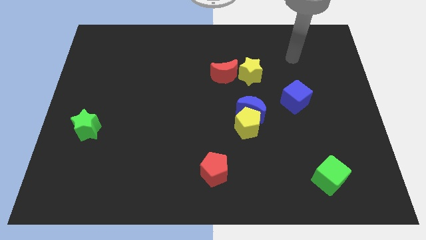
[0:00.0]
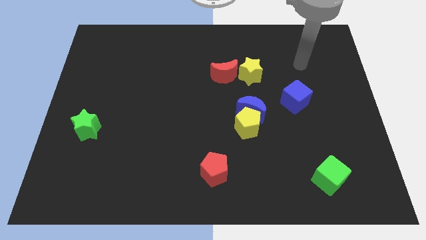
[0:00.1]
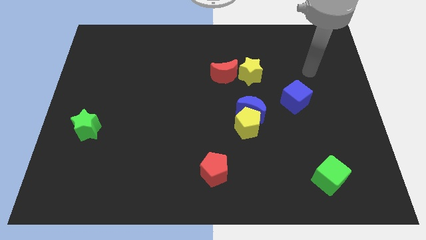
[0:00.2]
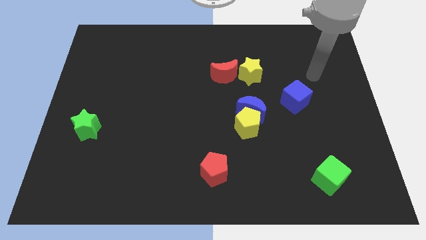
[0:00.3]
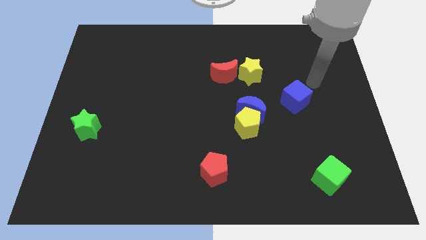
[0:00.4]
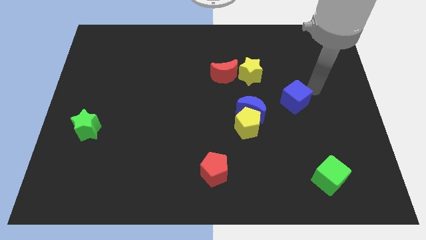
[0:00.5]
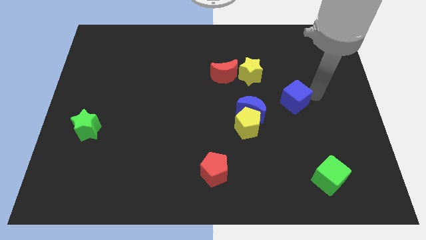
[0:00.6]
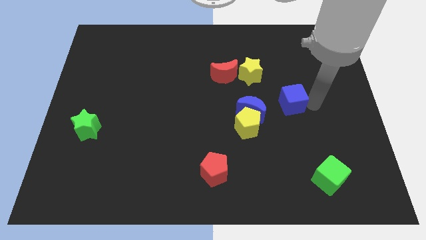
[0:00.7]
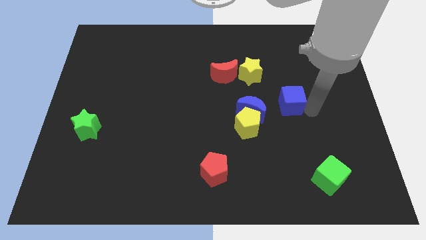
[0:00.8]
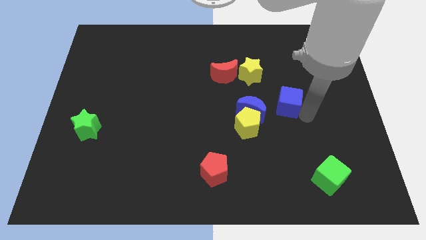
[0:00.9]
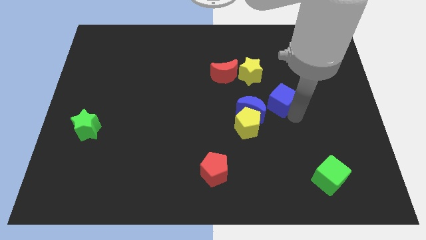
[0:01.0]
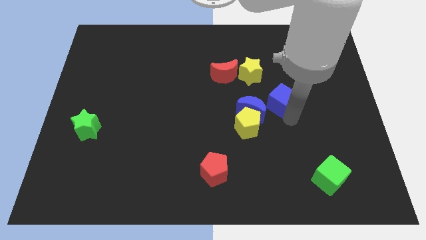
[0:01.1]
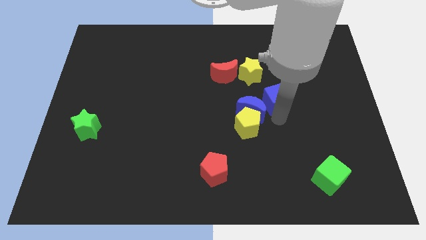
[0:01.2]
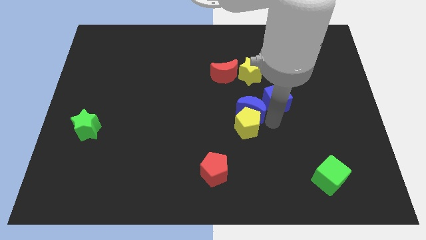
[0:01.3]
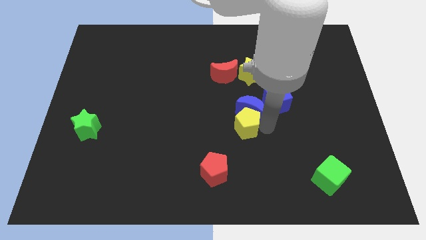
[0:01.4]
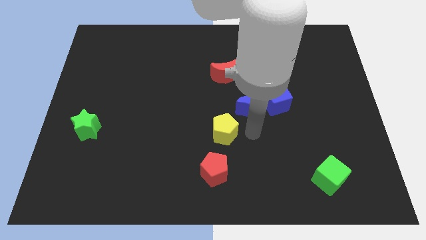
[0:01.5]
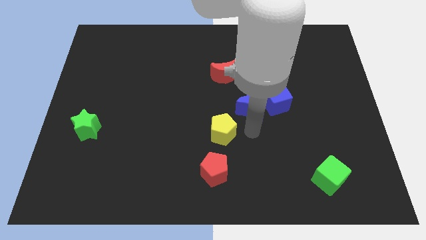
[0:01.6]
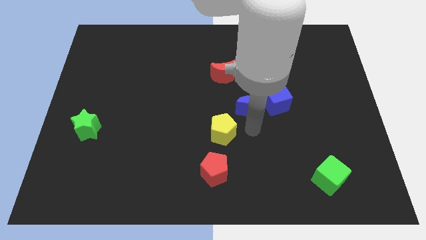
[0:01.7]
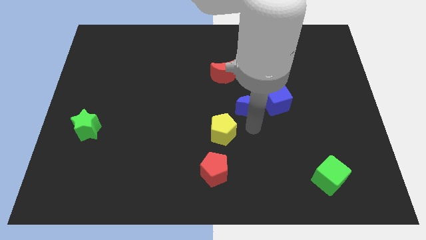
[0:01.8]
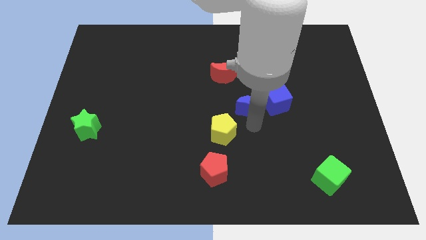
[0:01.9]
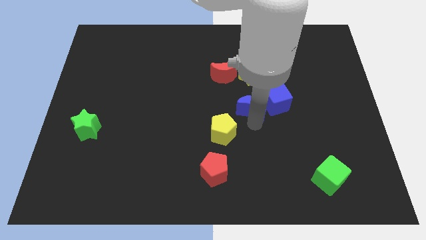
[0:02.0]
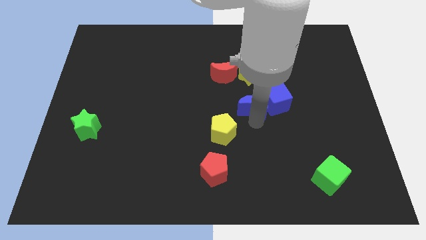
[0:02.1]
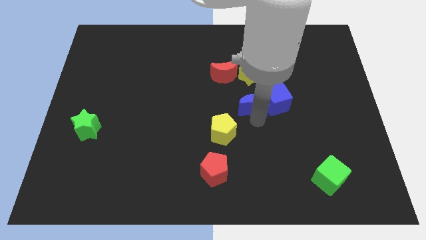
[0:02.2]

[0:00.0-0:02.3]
separate the blue moon from the yellow pentagon

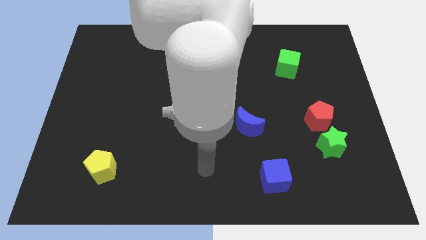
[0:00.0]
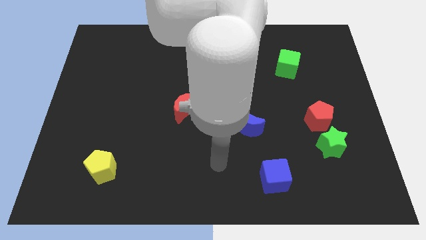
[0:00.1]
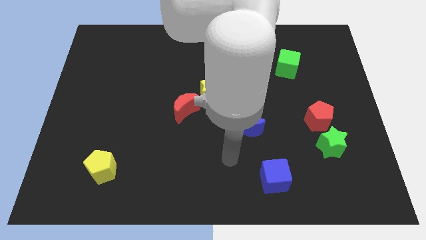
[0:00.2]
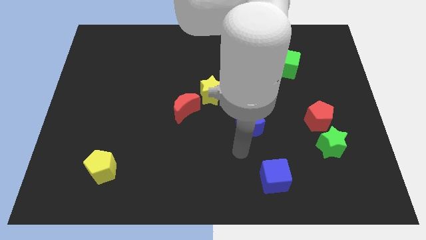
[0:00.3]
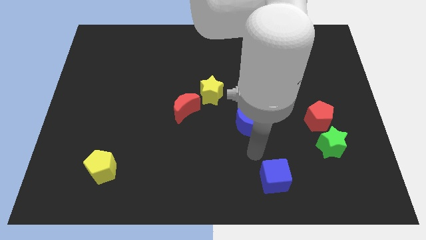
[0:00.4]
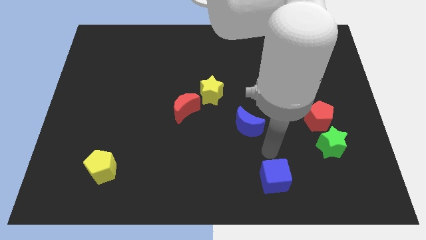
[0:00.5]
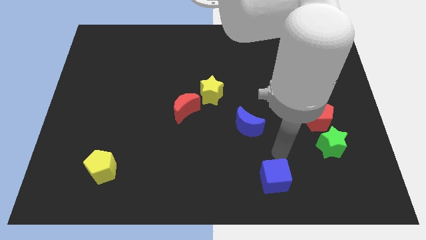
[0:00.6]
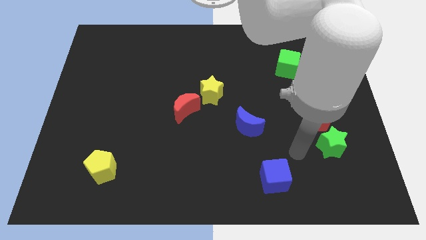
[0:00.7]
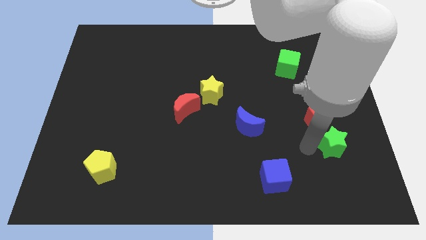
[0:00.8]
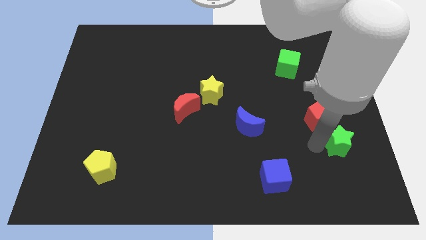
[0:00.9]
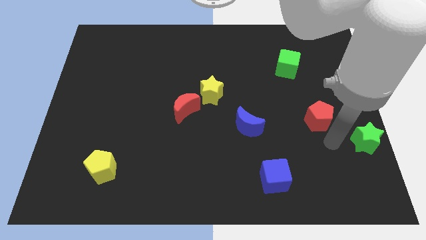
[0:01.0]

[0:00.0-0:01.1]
separate the red pentagon from the green star

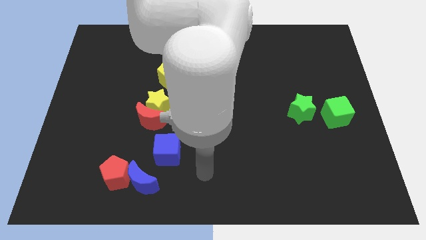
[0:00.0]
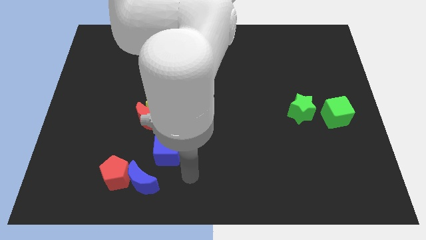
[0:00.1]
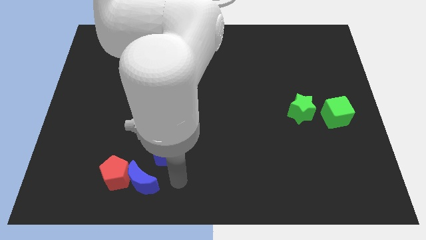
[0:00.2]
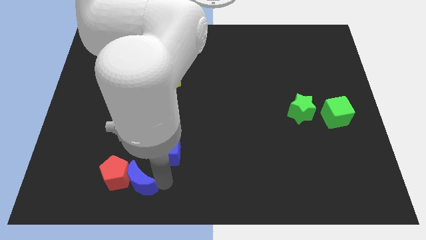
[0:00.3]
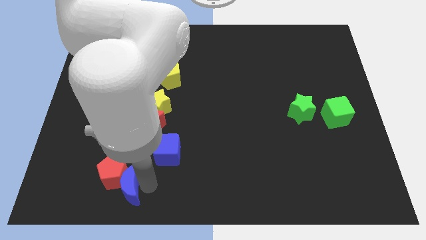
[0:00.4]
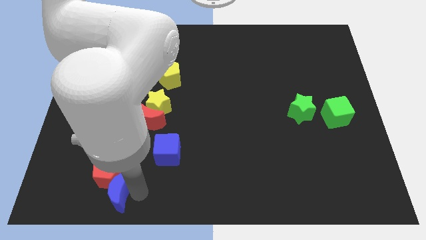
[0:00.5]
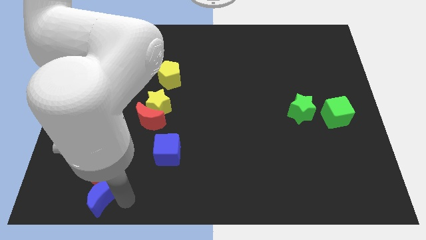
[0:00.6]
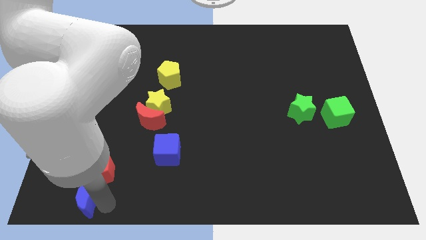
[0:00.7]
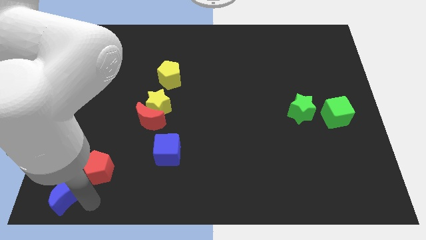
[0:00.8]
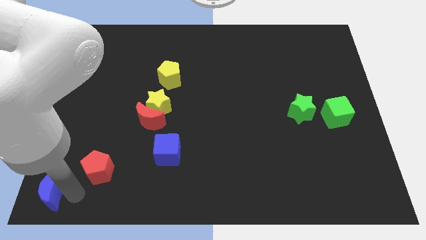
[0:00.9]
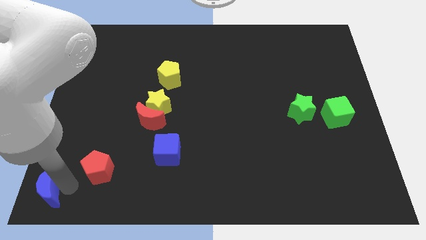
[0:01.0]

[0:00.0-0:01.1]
separate the red pentagon from the blue moon

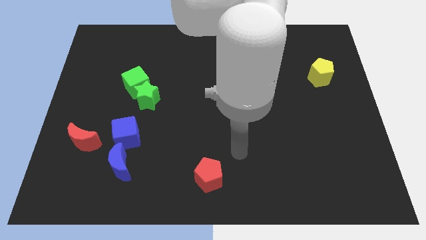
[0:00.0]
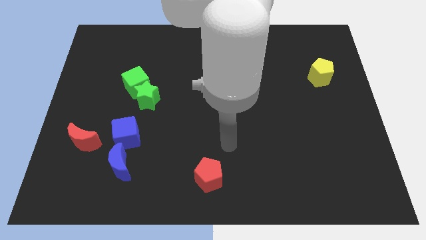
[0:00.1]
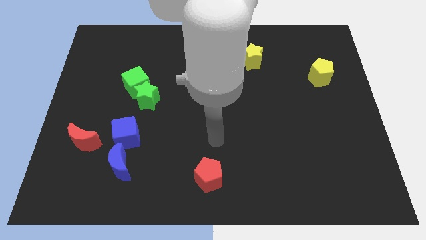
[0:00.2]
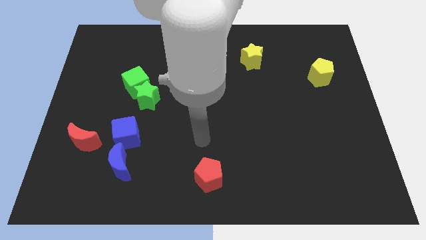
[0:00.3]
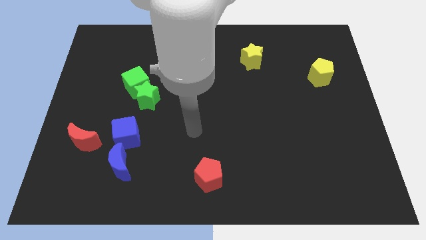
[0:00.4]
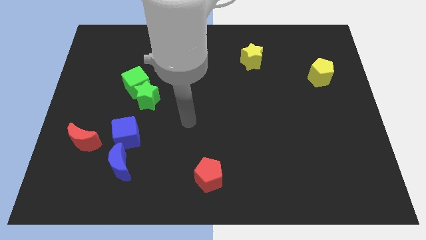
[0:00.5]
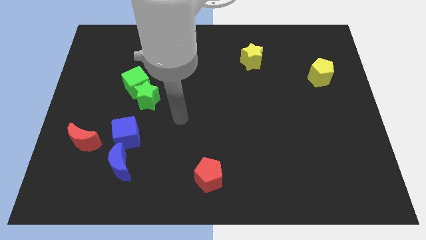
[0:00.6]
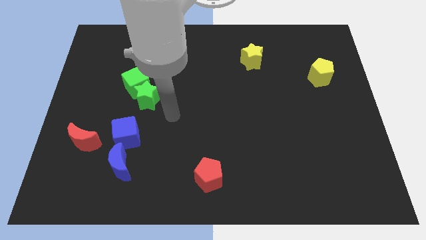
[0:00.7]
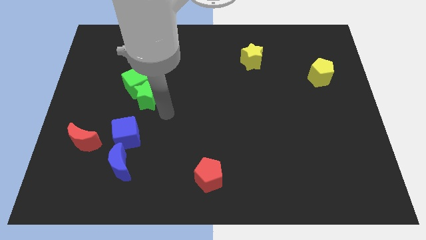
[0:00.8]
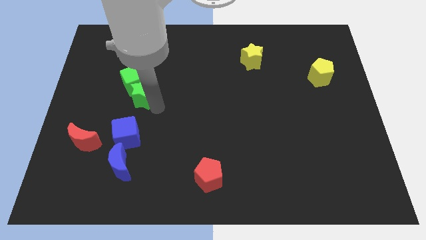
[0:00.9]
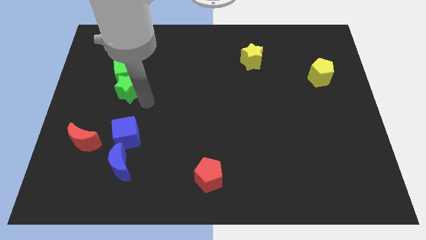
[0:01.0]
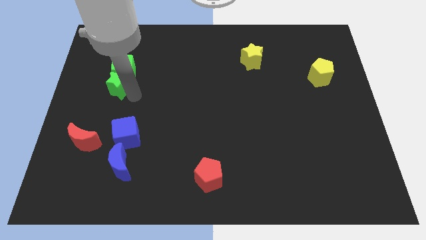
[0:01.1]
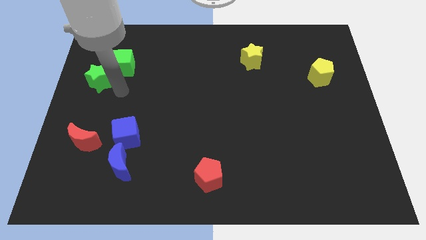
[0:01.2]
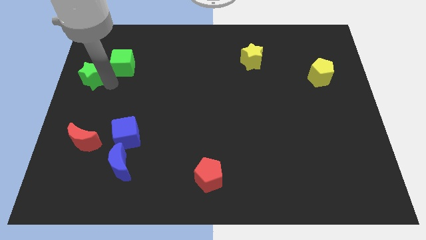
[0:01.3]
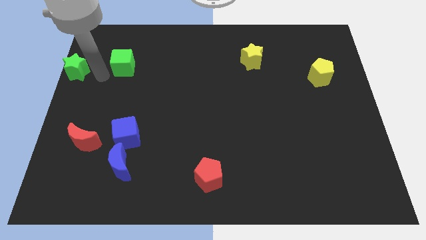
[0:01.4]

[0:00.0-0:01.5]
pull the green cube apart from the green star

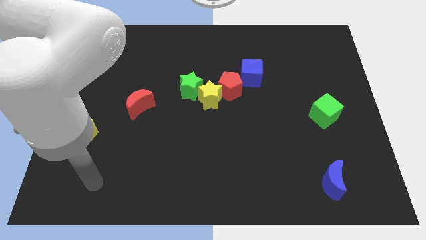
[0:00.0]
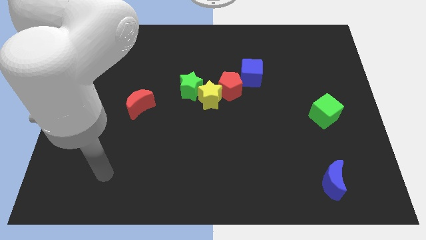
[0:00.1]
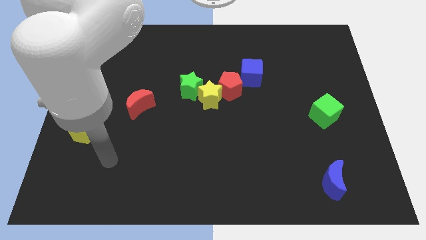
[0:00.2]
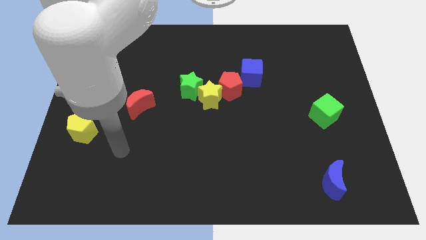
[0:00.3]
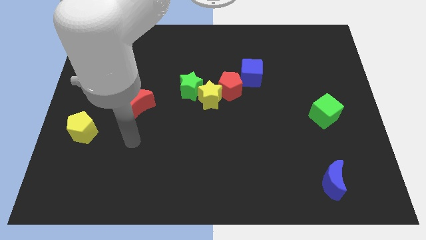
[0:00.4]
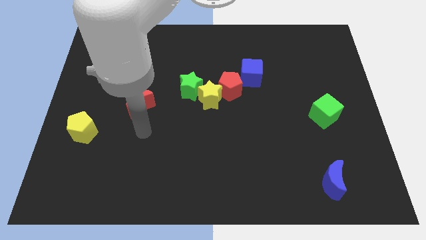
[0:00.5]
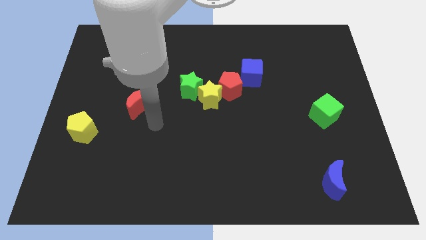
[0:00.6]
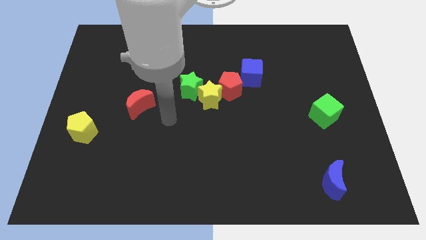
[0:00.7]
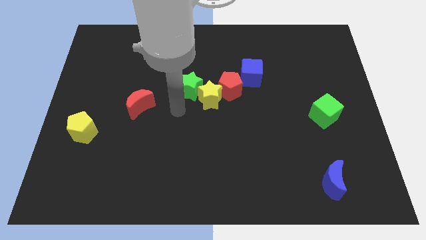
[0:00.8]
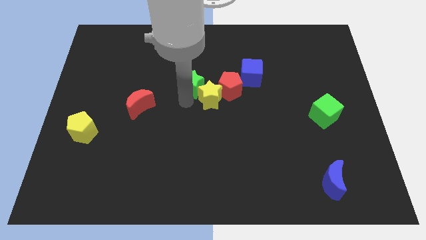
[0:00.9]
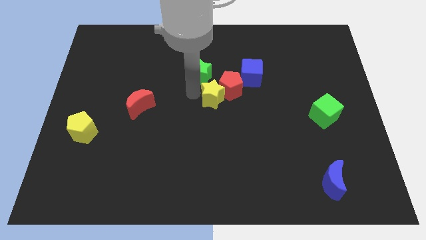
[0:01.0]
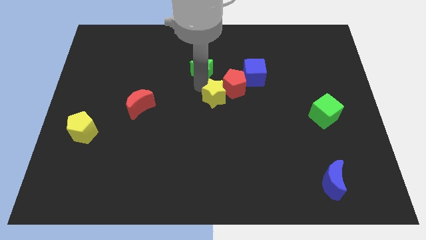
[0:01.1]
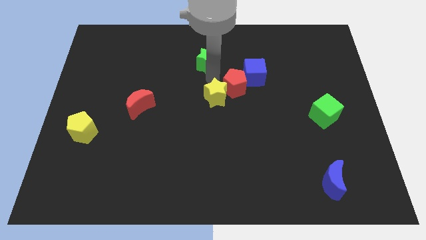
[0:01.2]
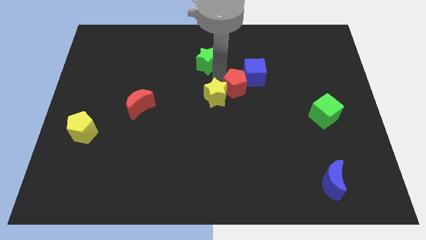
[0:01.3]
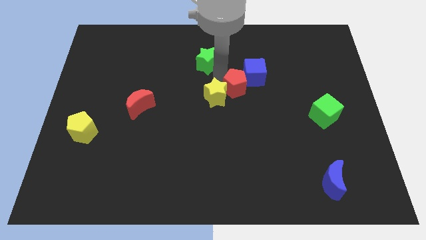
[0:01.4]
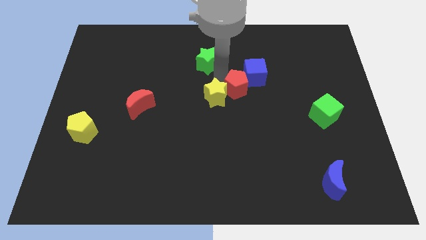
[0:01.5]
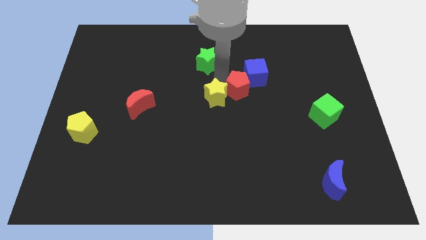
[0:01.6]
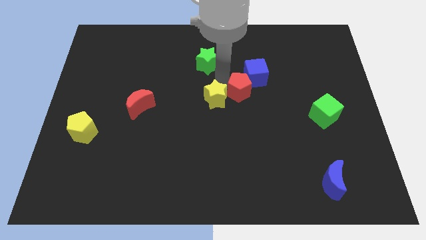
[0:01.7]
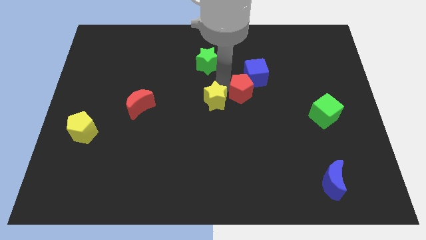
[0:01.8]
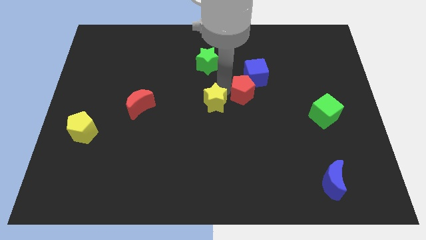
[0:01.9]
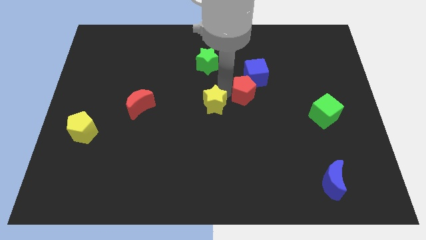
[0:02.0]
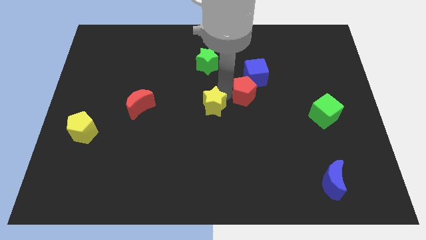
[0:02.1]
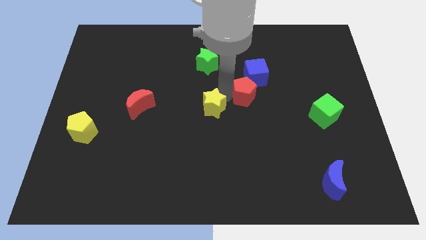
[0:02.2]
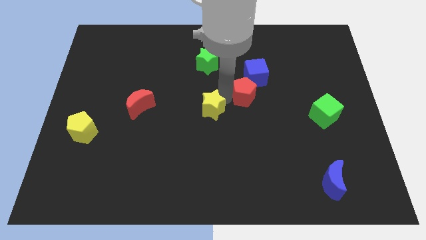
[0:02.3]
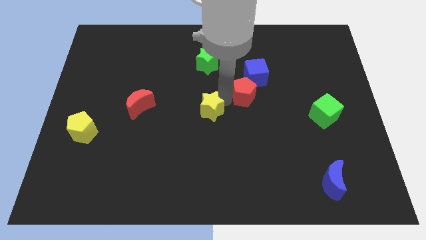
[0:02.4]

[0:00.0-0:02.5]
move the yellow star away from the red pentagon and green star

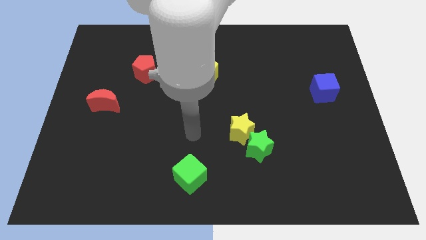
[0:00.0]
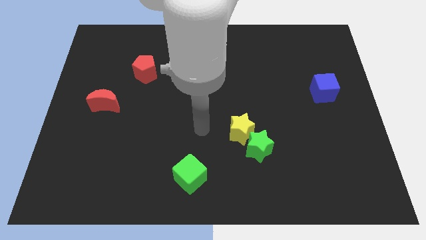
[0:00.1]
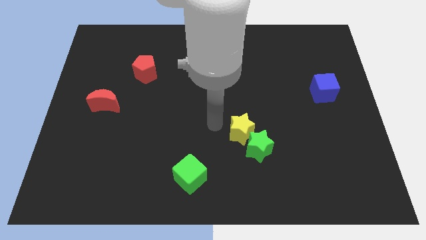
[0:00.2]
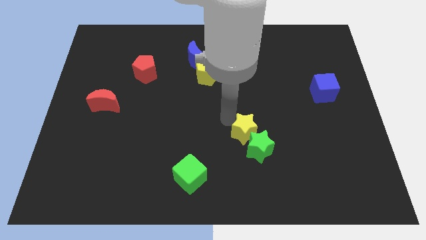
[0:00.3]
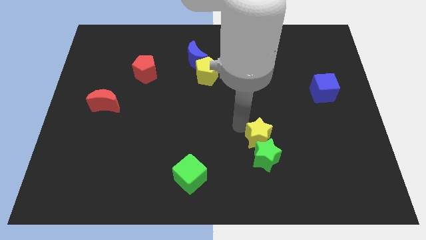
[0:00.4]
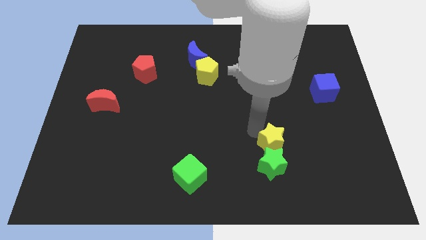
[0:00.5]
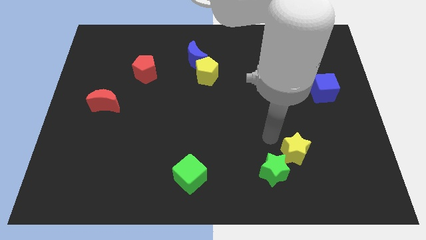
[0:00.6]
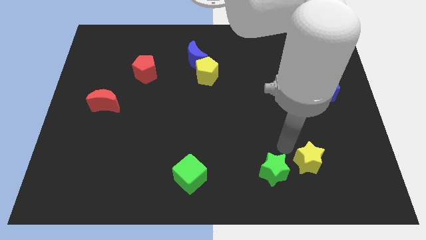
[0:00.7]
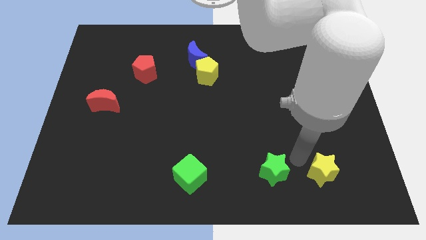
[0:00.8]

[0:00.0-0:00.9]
pull the green star apart from the yellow star
